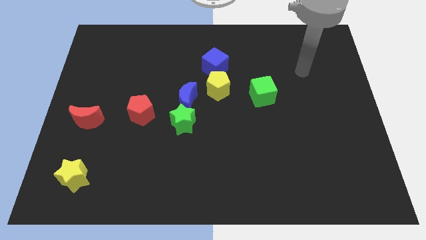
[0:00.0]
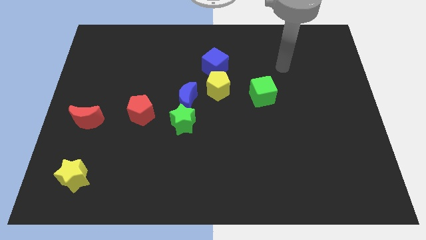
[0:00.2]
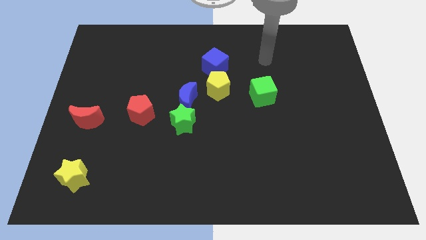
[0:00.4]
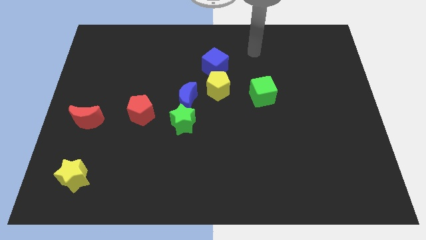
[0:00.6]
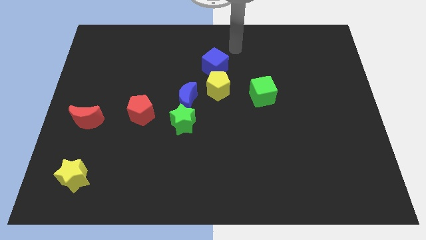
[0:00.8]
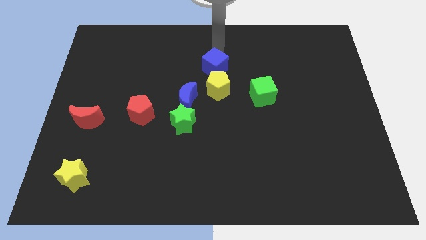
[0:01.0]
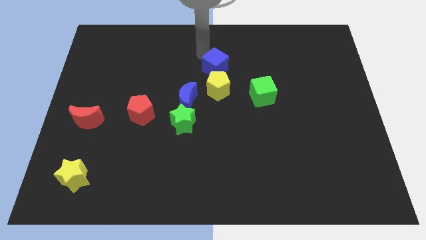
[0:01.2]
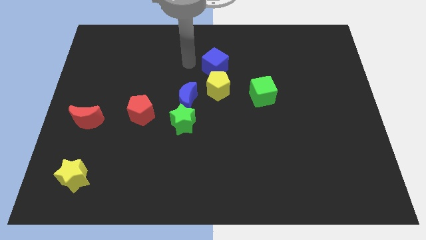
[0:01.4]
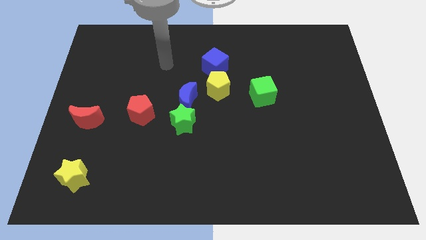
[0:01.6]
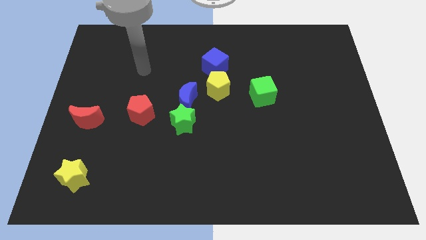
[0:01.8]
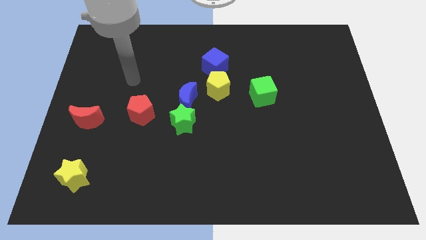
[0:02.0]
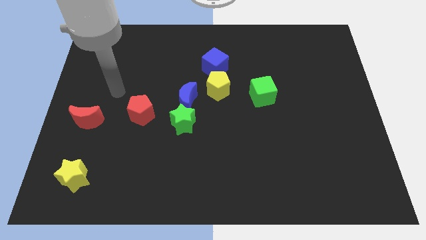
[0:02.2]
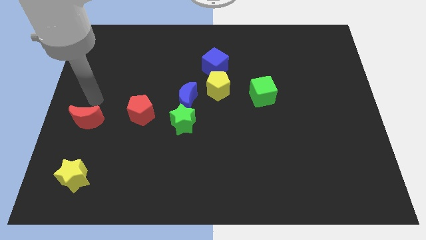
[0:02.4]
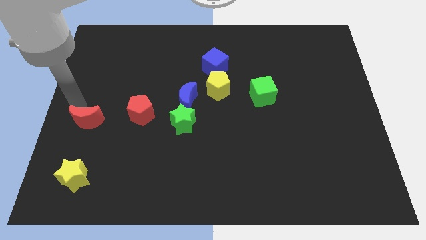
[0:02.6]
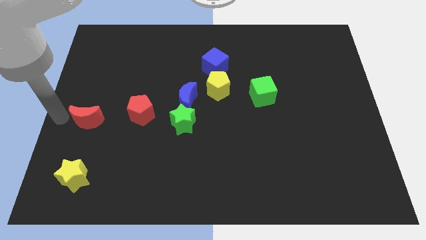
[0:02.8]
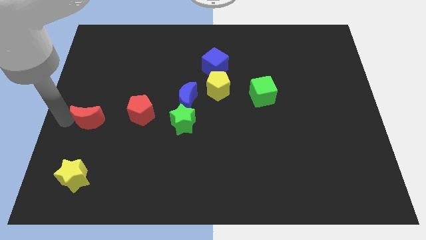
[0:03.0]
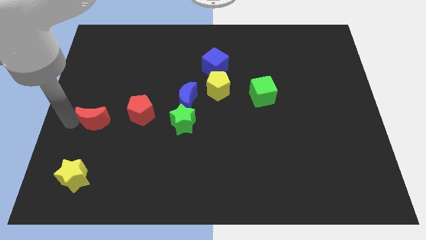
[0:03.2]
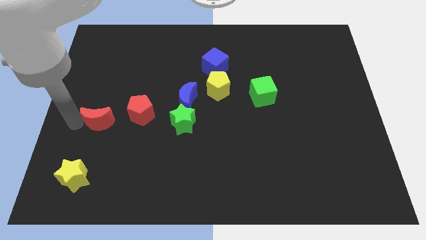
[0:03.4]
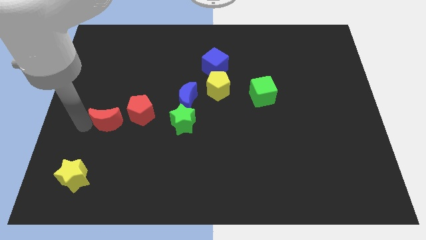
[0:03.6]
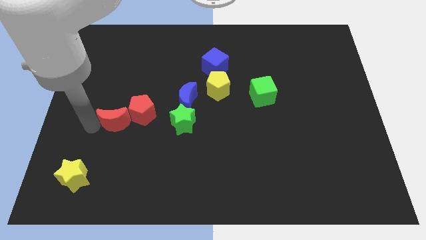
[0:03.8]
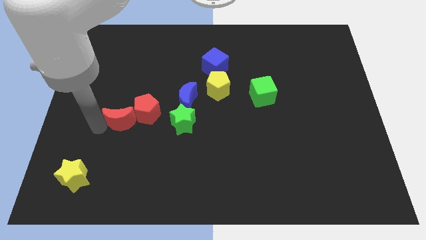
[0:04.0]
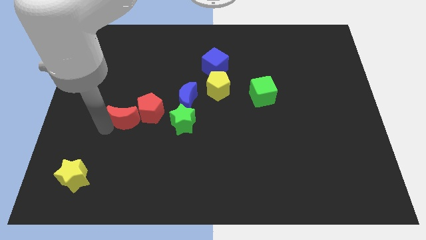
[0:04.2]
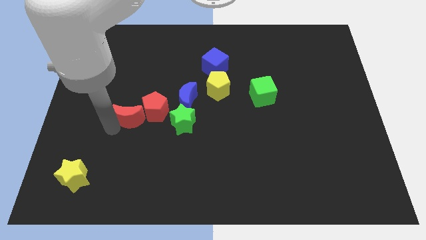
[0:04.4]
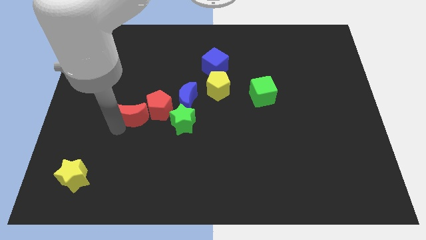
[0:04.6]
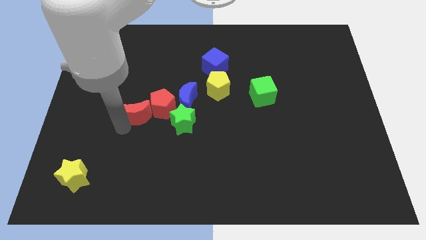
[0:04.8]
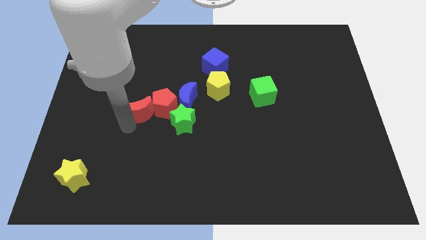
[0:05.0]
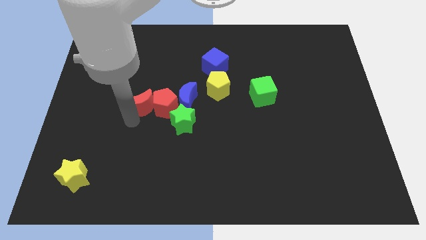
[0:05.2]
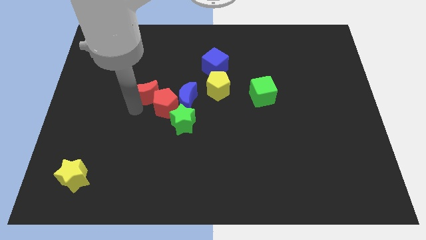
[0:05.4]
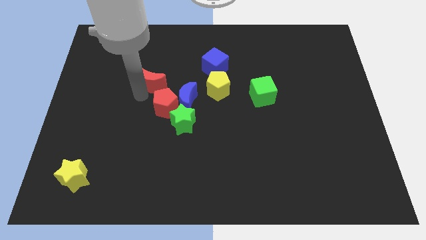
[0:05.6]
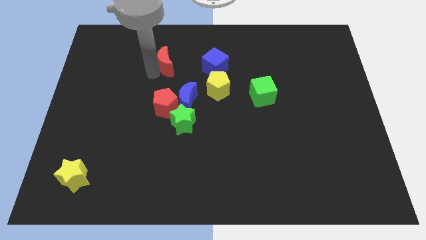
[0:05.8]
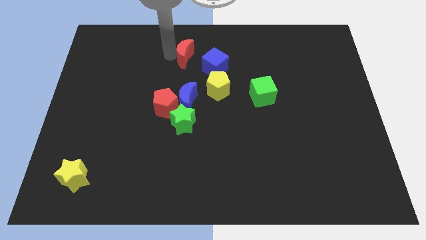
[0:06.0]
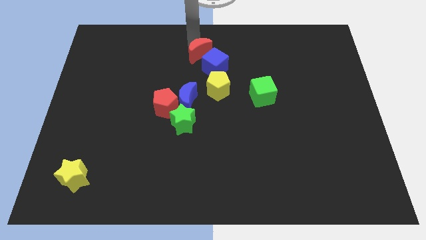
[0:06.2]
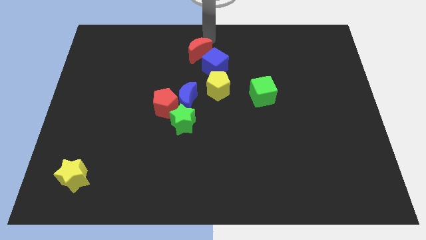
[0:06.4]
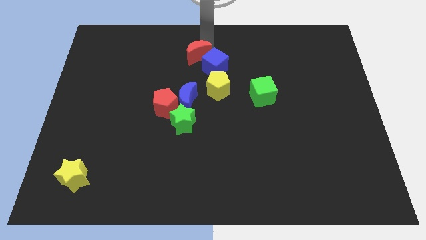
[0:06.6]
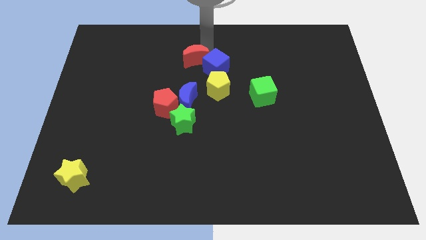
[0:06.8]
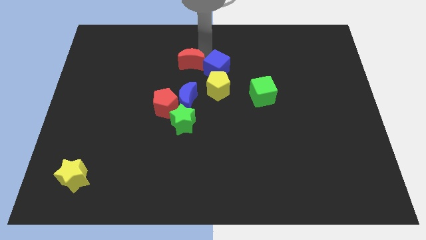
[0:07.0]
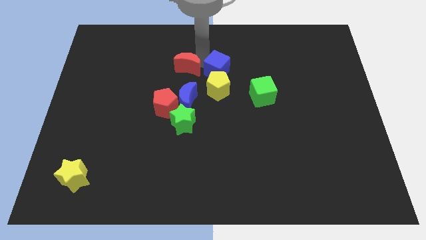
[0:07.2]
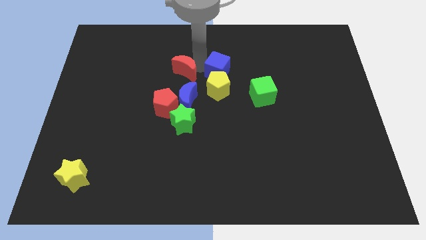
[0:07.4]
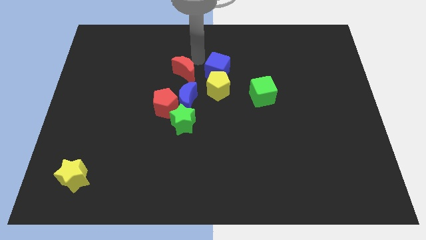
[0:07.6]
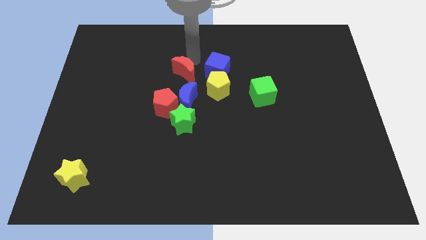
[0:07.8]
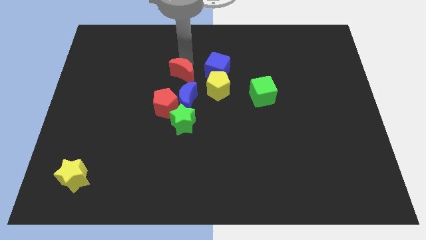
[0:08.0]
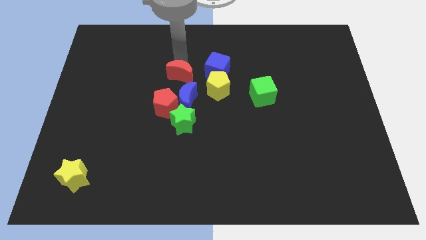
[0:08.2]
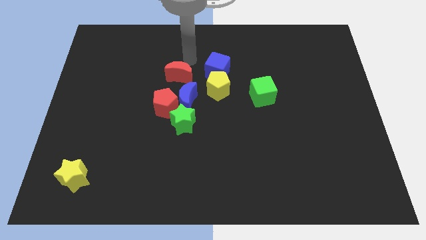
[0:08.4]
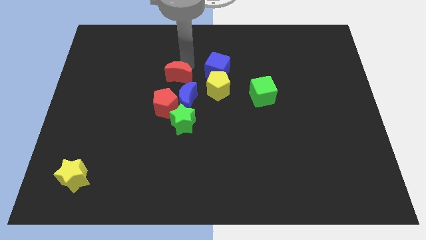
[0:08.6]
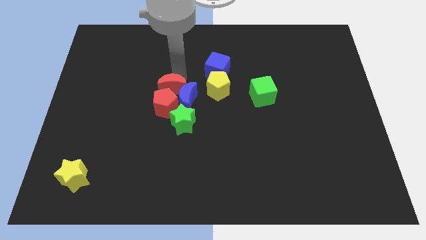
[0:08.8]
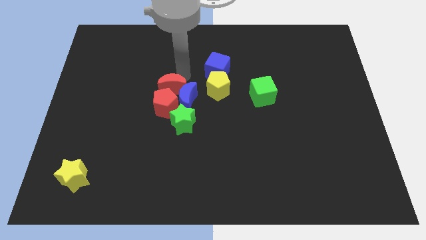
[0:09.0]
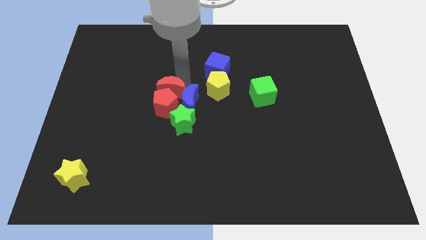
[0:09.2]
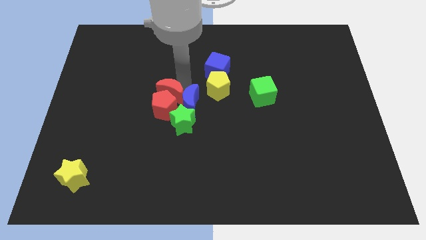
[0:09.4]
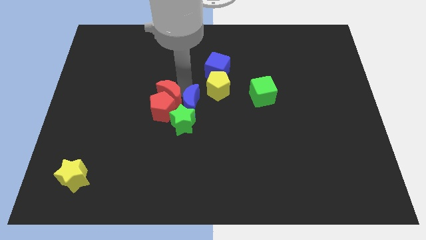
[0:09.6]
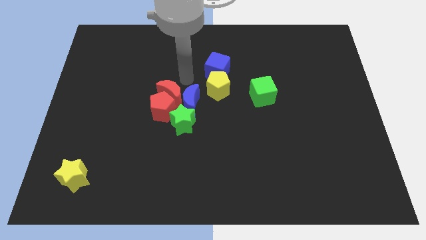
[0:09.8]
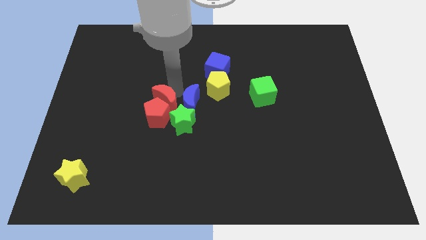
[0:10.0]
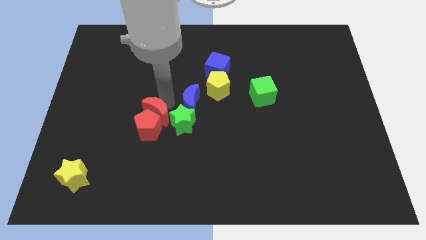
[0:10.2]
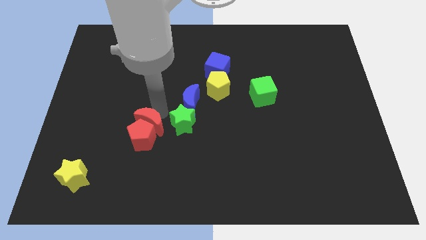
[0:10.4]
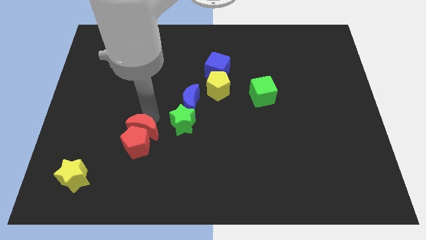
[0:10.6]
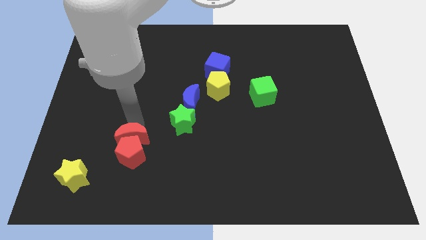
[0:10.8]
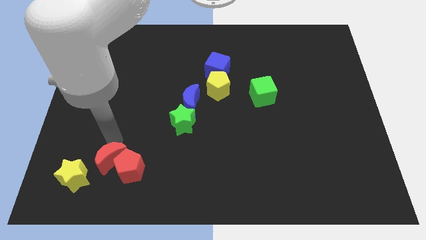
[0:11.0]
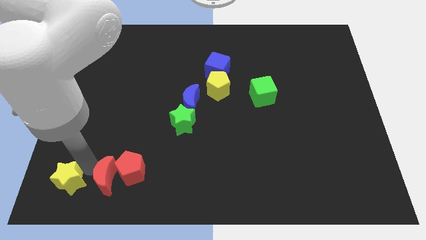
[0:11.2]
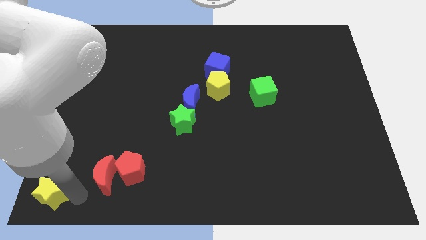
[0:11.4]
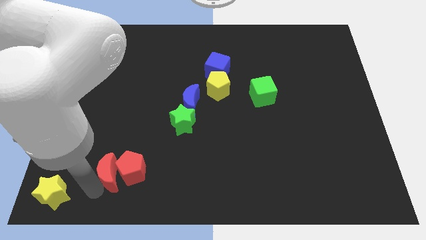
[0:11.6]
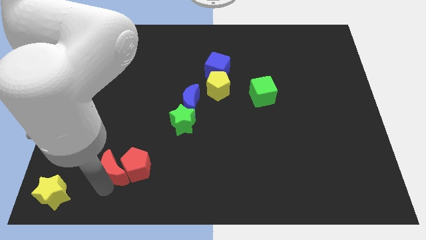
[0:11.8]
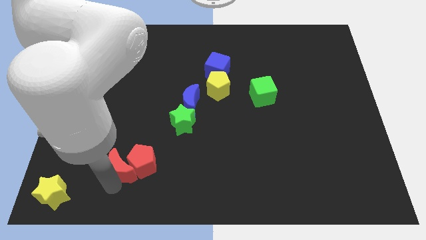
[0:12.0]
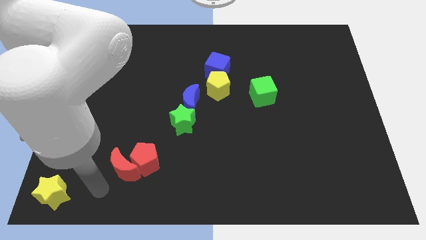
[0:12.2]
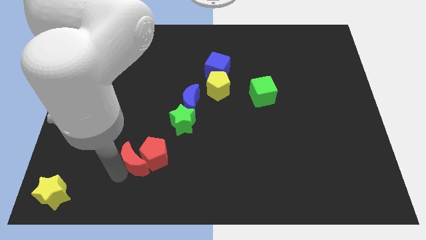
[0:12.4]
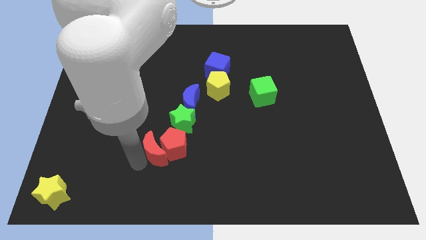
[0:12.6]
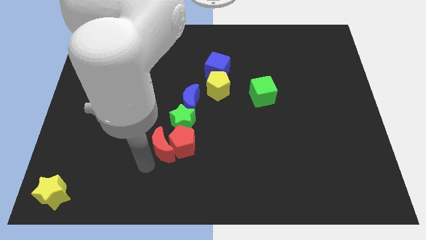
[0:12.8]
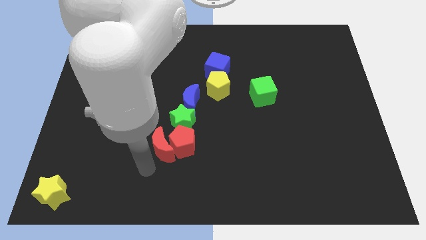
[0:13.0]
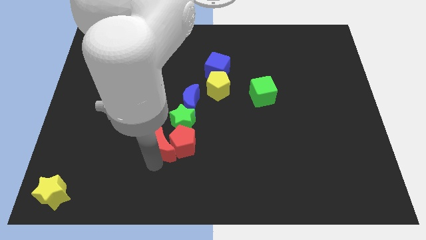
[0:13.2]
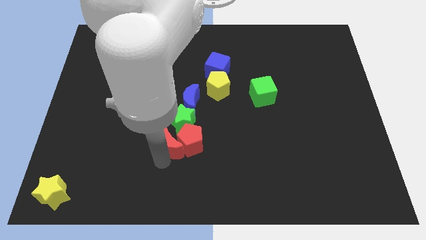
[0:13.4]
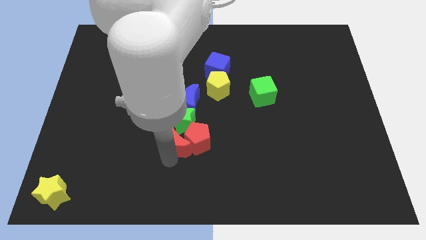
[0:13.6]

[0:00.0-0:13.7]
put the red moon next to the green star
